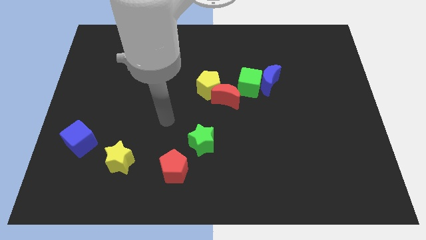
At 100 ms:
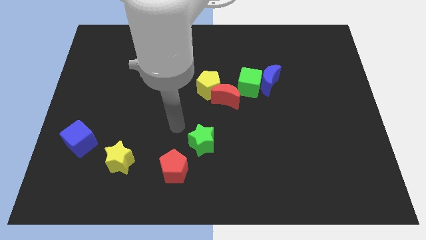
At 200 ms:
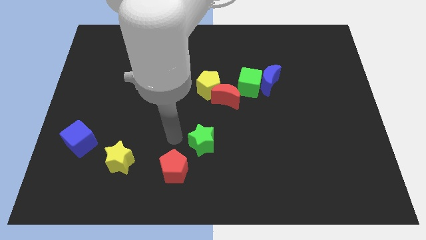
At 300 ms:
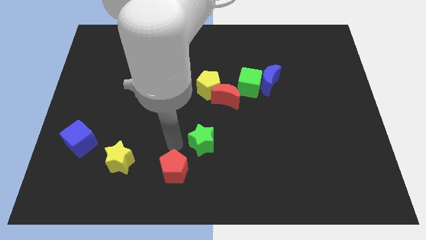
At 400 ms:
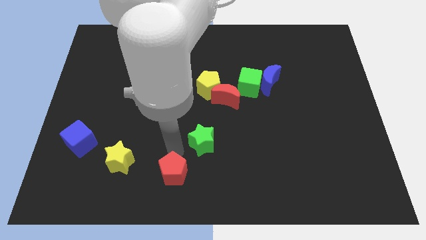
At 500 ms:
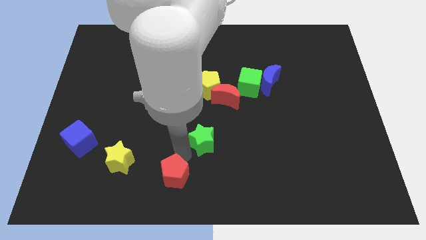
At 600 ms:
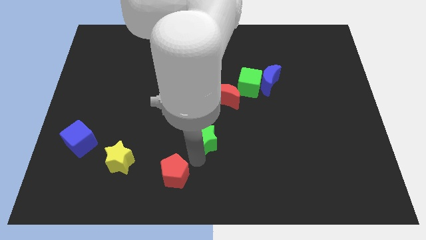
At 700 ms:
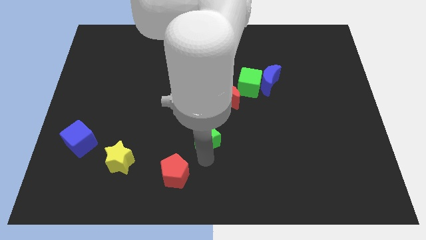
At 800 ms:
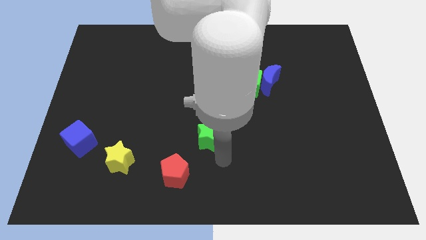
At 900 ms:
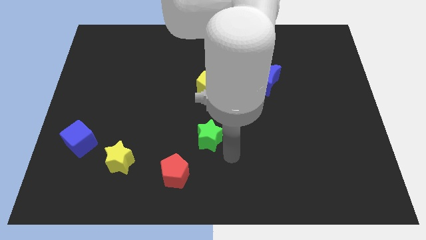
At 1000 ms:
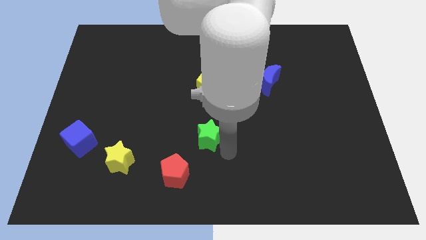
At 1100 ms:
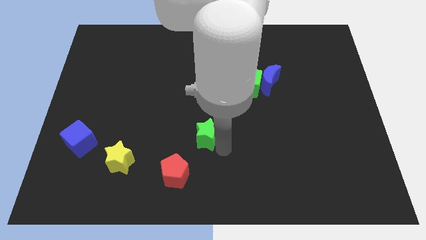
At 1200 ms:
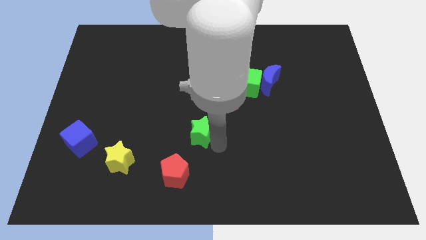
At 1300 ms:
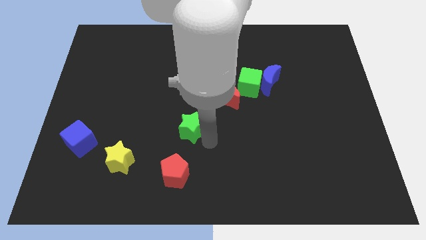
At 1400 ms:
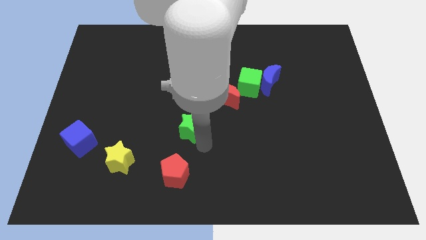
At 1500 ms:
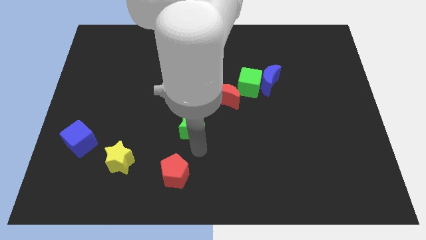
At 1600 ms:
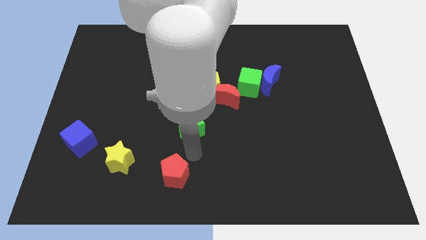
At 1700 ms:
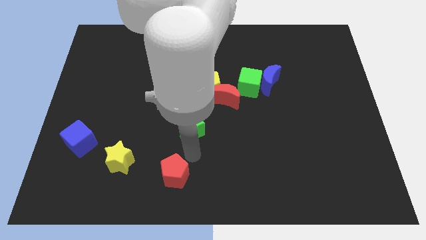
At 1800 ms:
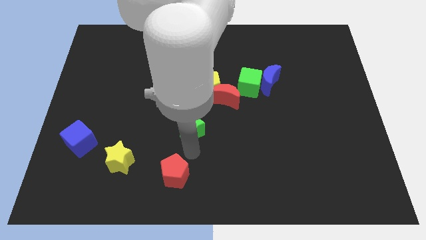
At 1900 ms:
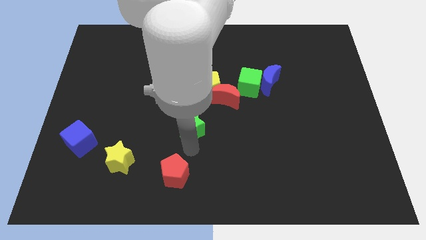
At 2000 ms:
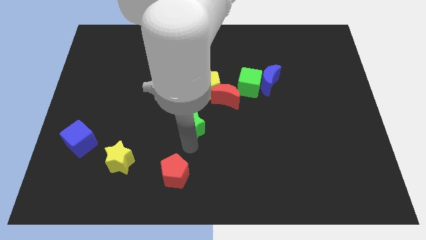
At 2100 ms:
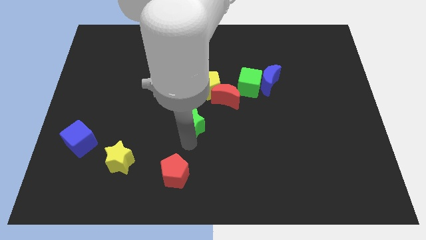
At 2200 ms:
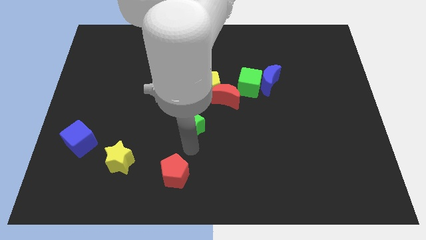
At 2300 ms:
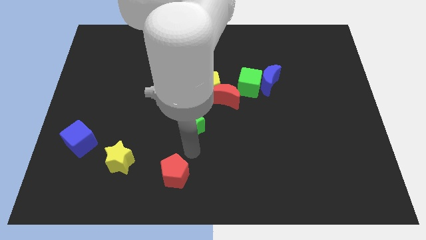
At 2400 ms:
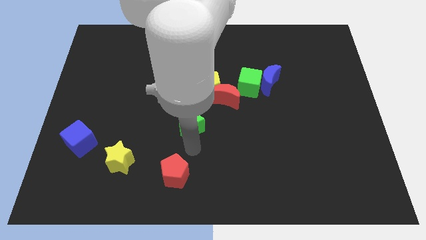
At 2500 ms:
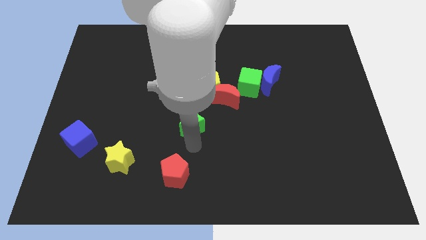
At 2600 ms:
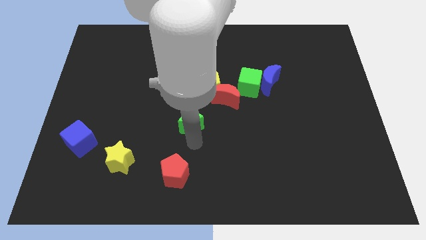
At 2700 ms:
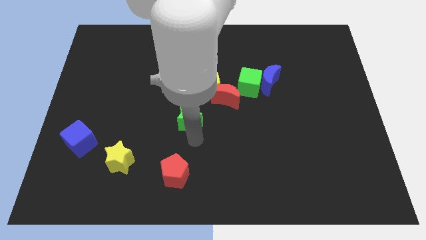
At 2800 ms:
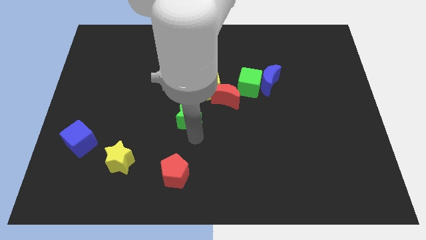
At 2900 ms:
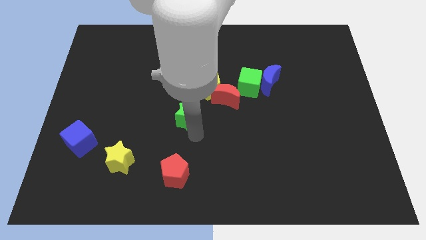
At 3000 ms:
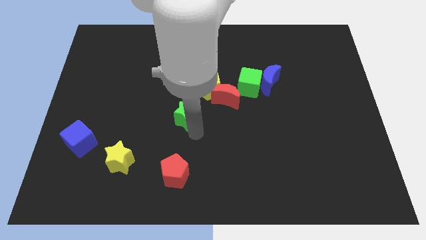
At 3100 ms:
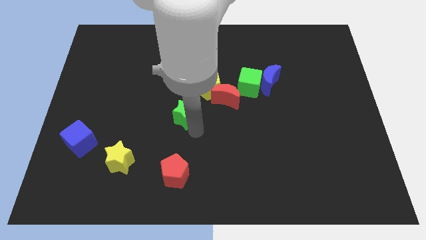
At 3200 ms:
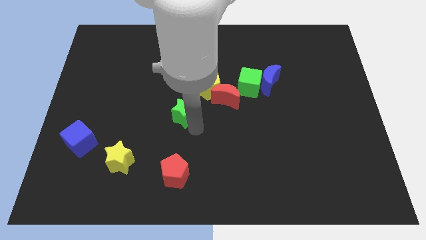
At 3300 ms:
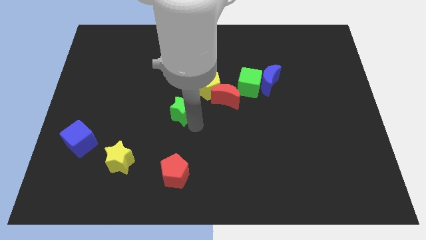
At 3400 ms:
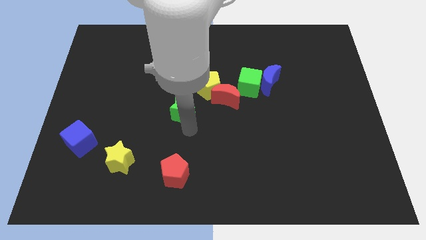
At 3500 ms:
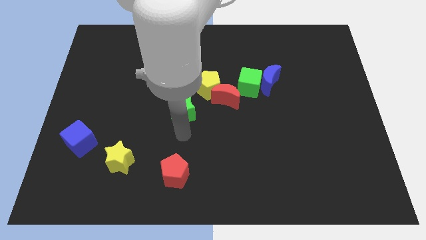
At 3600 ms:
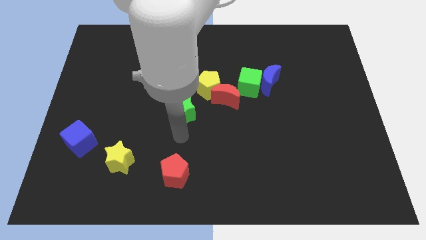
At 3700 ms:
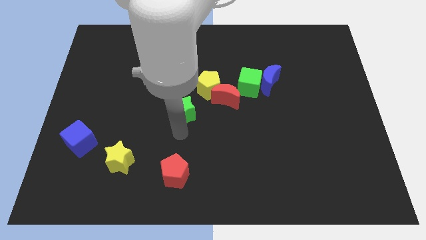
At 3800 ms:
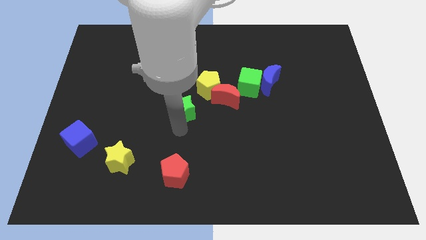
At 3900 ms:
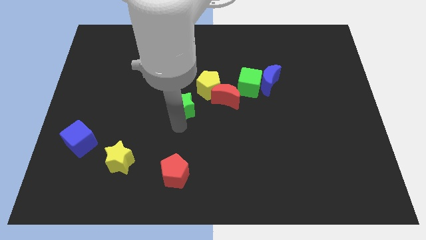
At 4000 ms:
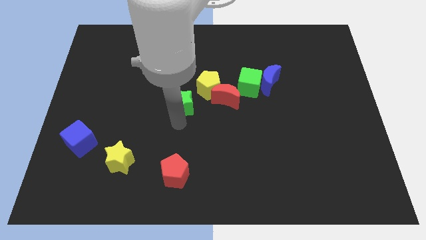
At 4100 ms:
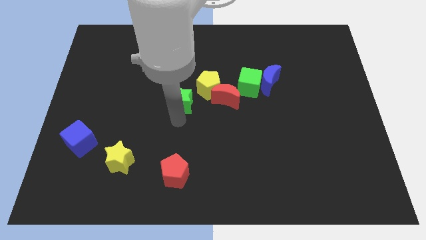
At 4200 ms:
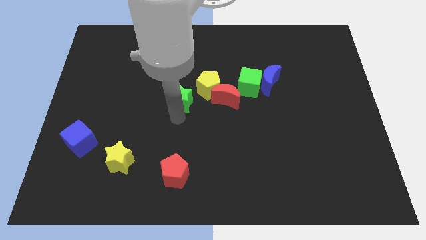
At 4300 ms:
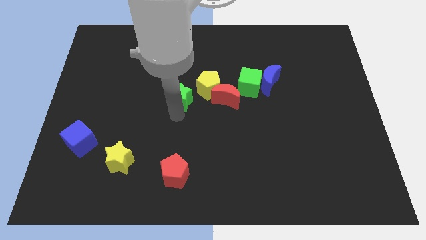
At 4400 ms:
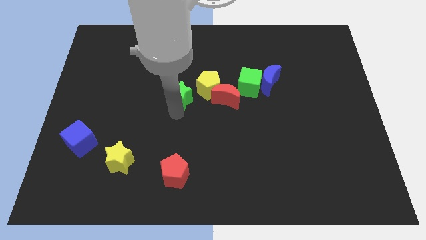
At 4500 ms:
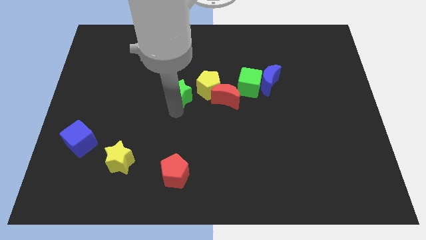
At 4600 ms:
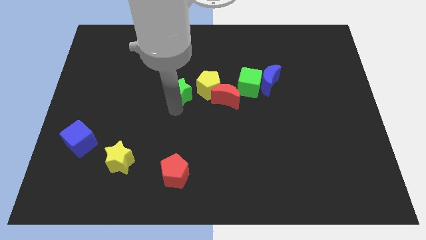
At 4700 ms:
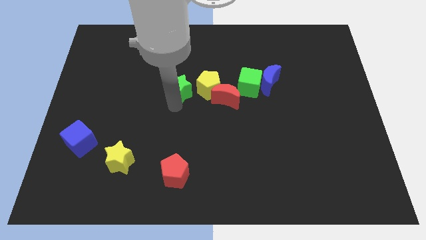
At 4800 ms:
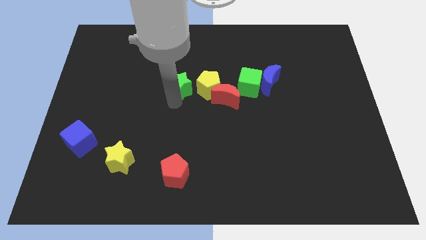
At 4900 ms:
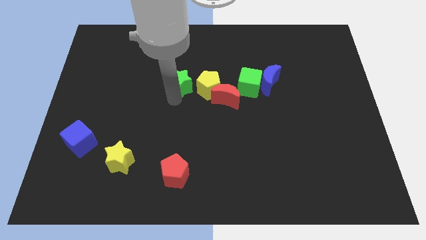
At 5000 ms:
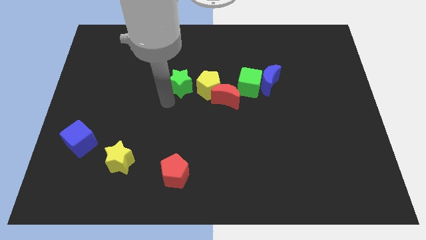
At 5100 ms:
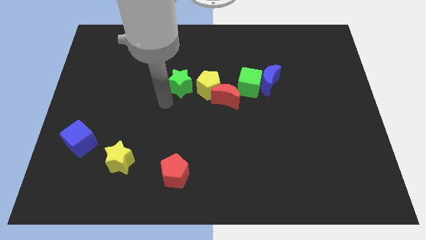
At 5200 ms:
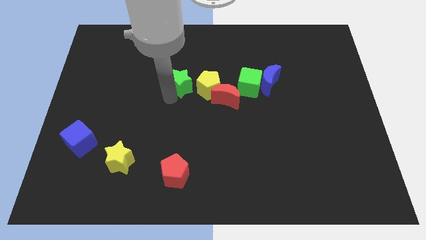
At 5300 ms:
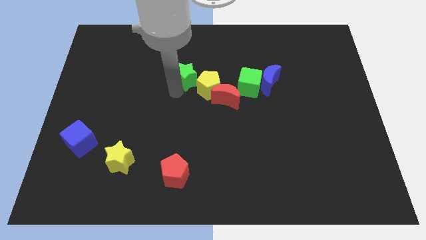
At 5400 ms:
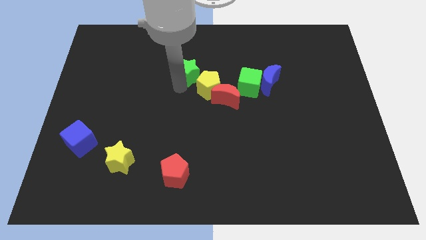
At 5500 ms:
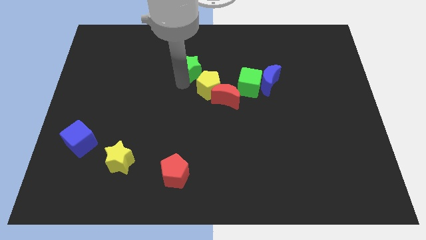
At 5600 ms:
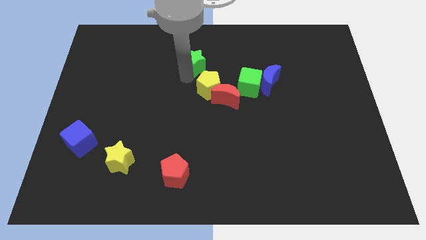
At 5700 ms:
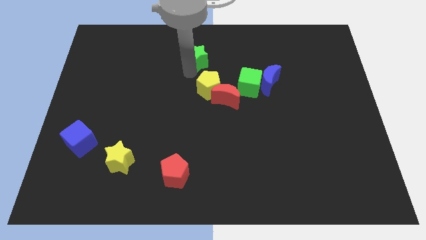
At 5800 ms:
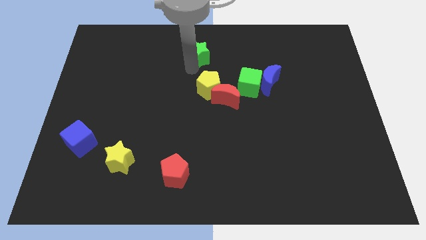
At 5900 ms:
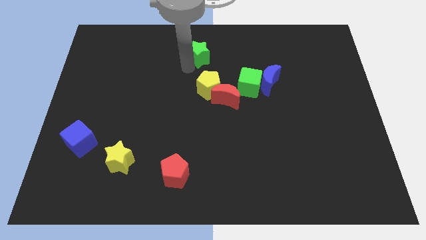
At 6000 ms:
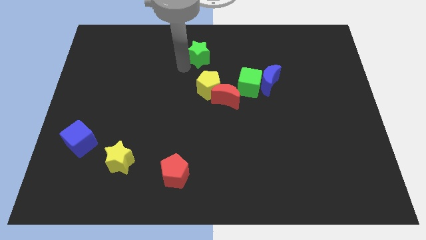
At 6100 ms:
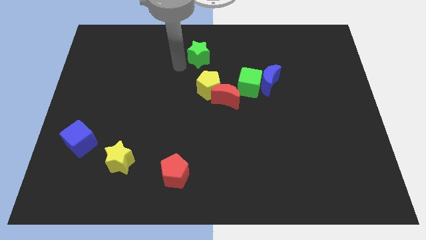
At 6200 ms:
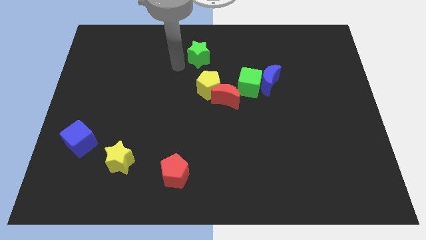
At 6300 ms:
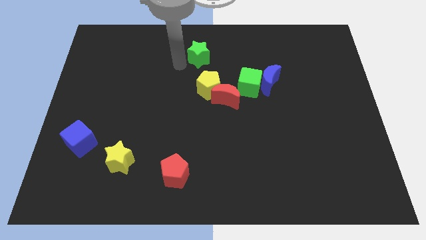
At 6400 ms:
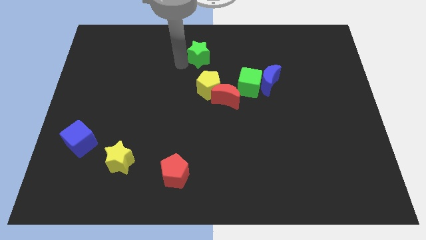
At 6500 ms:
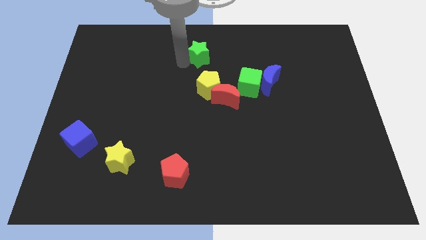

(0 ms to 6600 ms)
slide the green star to the towards your base
